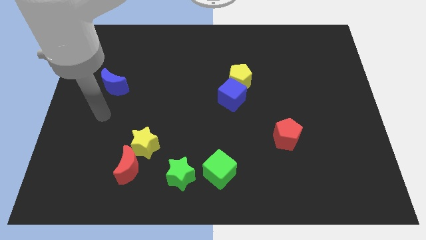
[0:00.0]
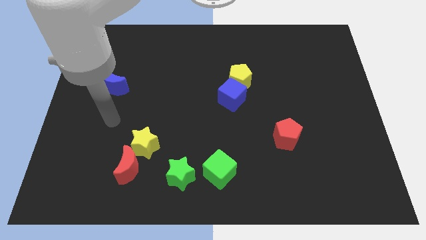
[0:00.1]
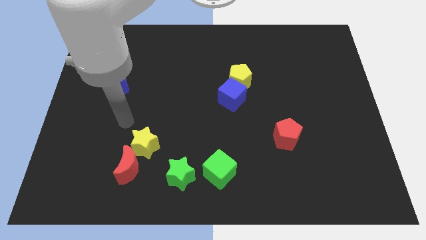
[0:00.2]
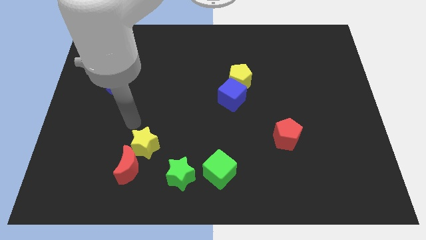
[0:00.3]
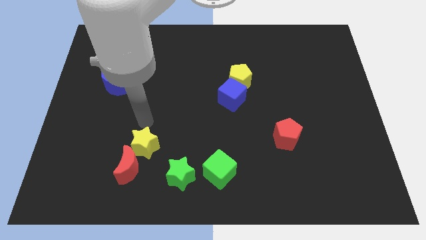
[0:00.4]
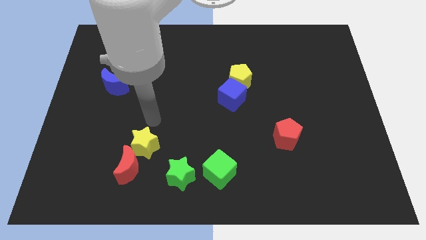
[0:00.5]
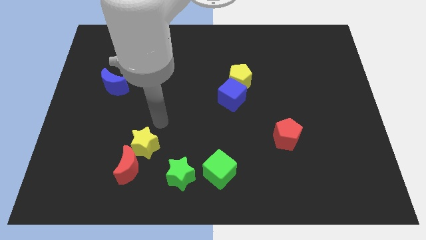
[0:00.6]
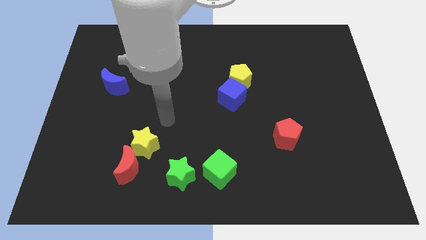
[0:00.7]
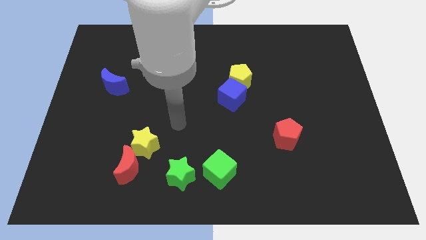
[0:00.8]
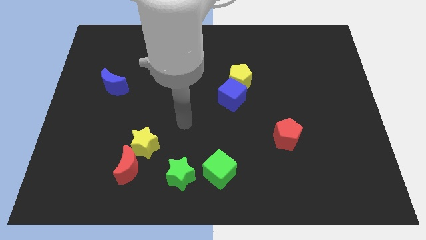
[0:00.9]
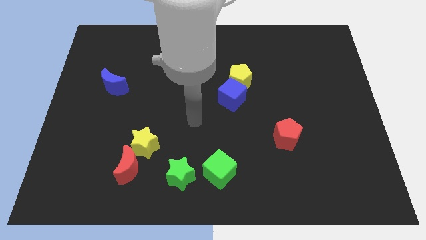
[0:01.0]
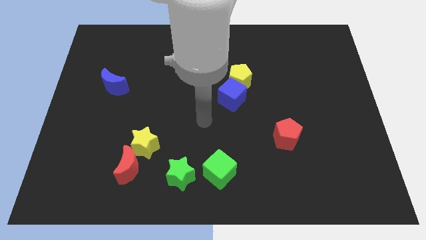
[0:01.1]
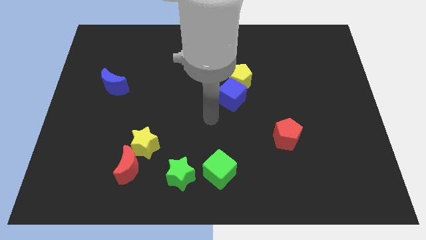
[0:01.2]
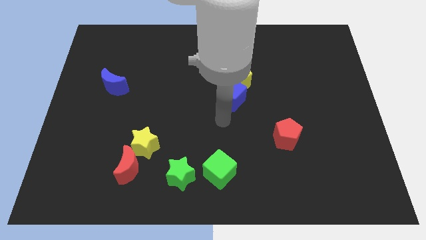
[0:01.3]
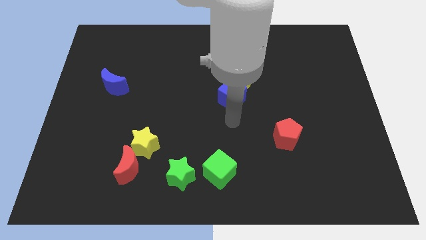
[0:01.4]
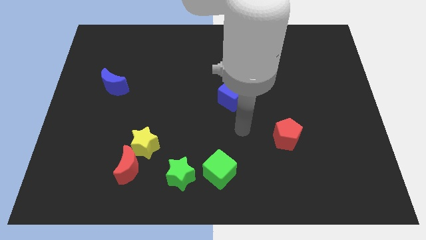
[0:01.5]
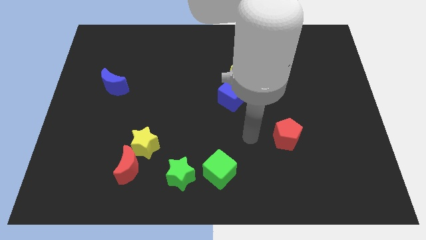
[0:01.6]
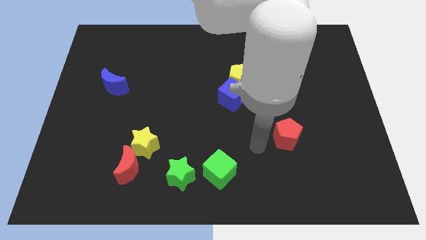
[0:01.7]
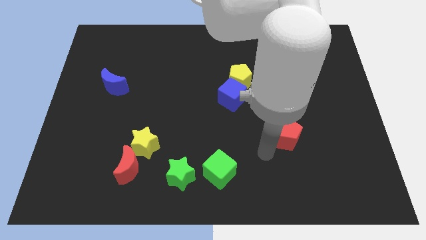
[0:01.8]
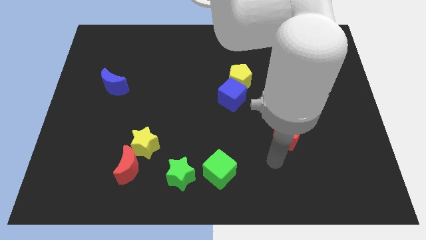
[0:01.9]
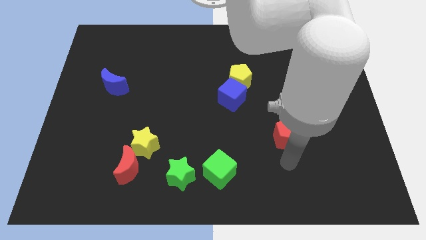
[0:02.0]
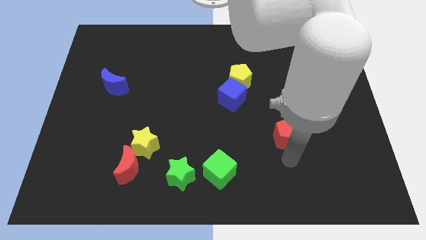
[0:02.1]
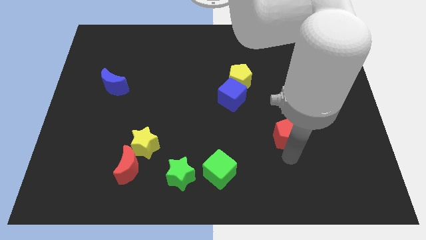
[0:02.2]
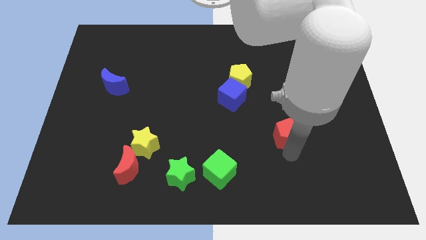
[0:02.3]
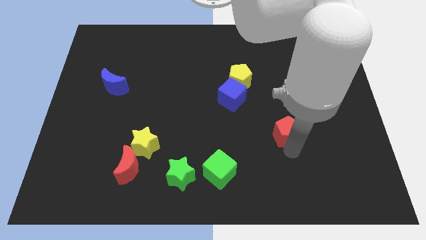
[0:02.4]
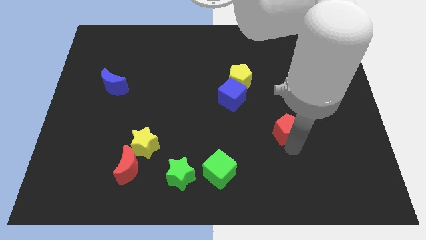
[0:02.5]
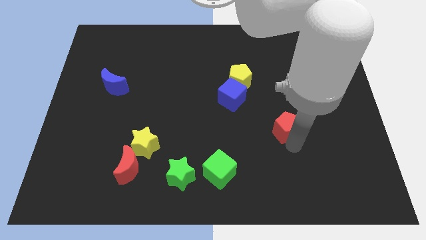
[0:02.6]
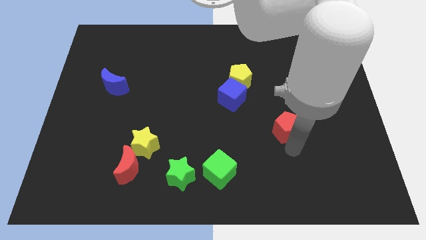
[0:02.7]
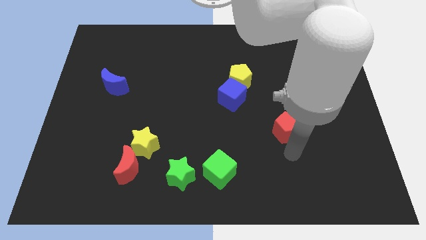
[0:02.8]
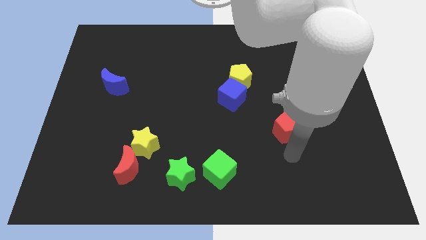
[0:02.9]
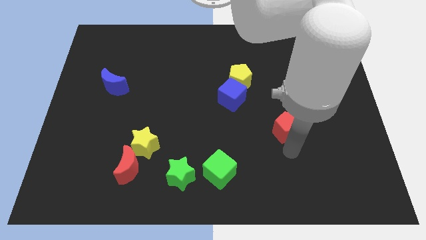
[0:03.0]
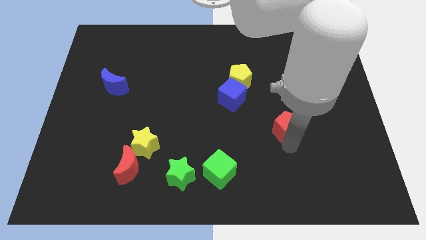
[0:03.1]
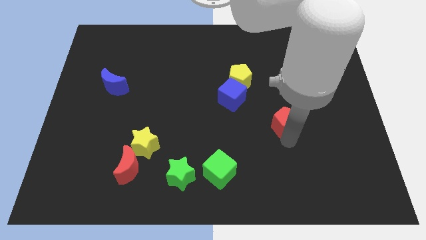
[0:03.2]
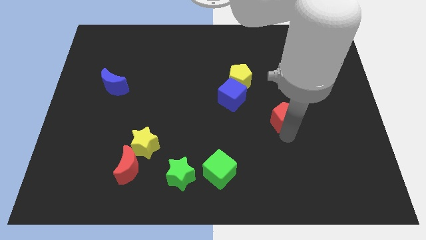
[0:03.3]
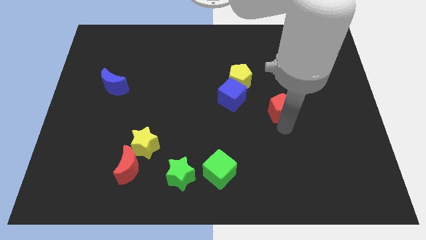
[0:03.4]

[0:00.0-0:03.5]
push the red pentagon upwards a little bit

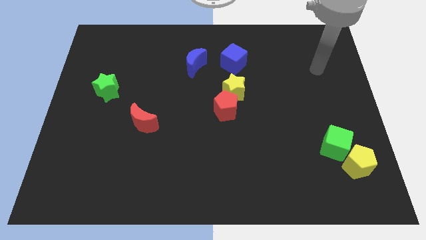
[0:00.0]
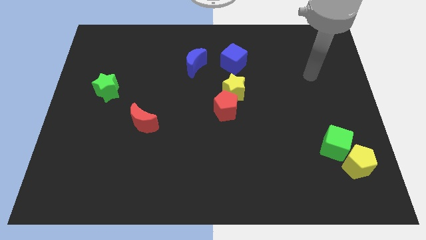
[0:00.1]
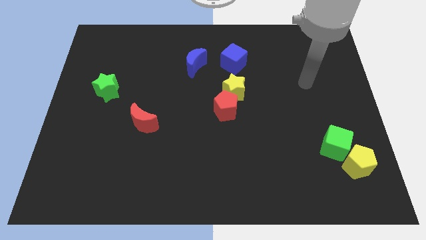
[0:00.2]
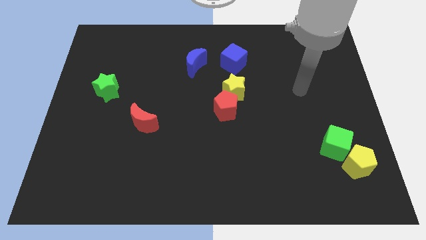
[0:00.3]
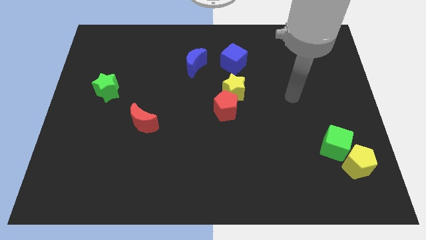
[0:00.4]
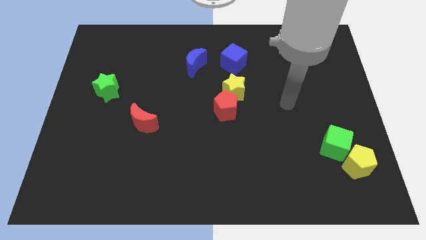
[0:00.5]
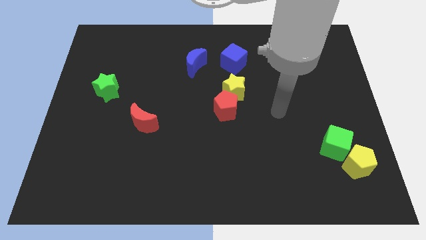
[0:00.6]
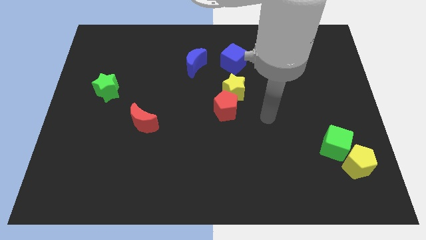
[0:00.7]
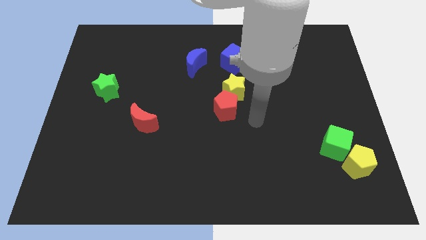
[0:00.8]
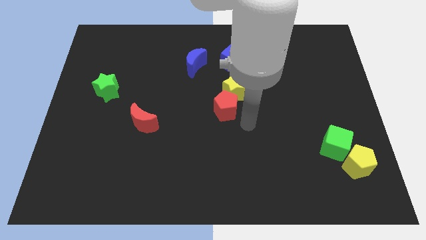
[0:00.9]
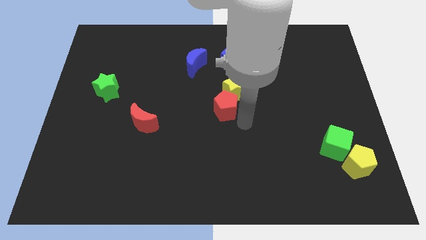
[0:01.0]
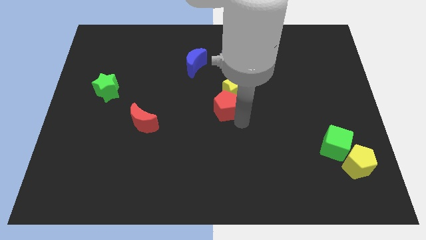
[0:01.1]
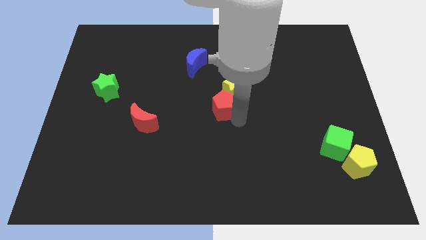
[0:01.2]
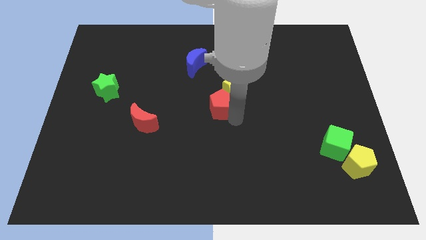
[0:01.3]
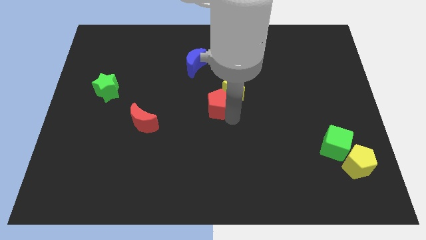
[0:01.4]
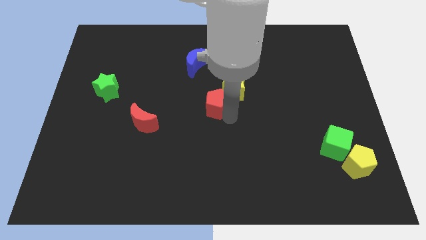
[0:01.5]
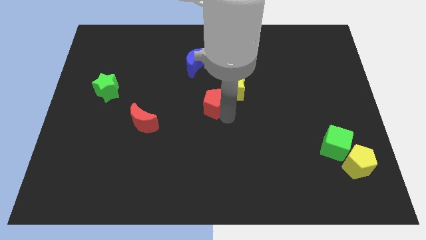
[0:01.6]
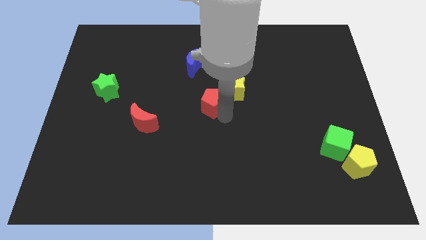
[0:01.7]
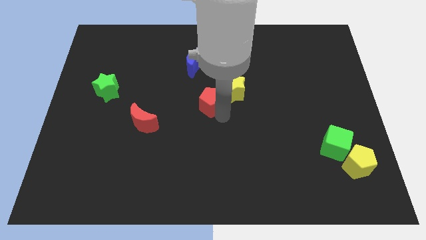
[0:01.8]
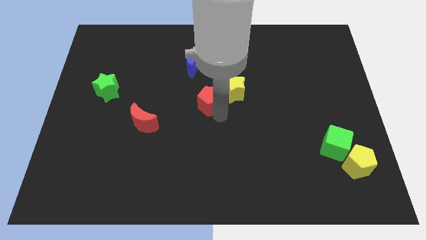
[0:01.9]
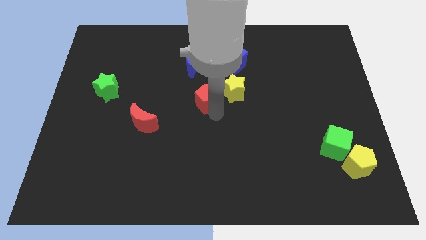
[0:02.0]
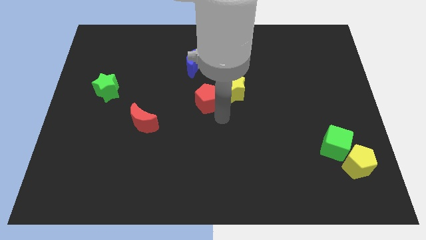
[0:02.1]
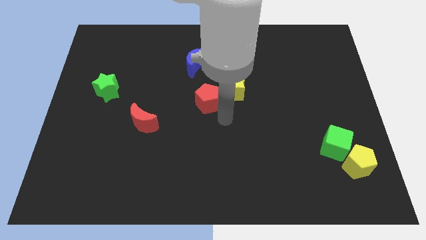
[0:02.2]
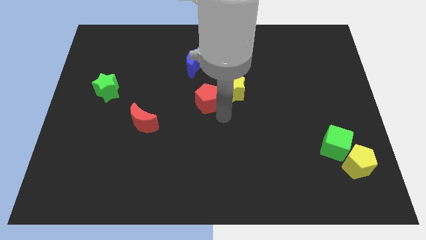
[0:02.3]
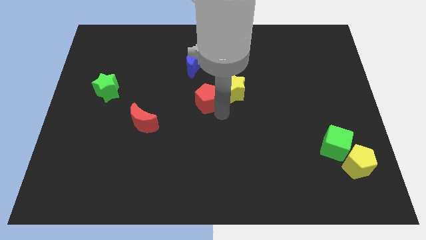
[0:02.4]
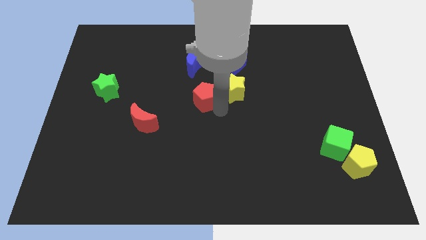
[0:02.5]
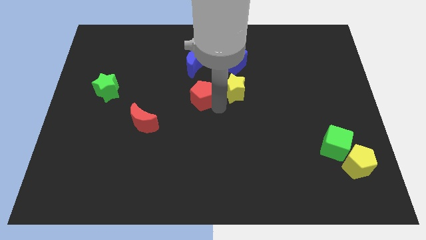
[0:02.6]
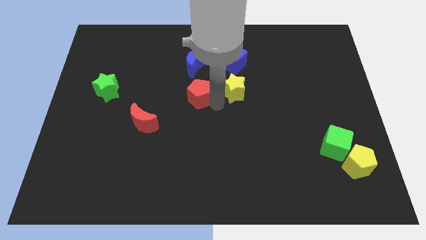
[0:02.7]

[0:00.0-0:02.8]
move the red pentagon somewhat up and left diagonally

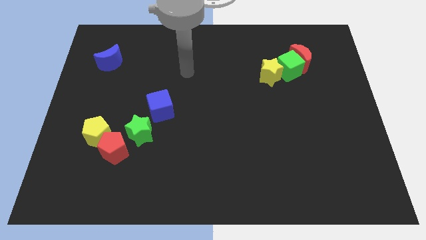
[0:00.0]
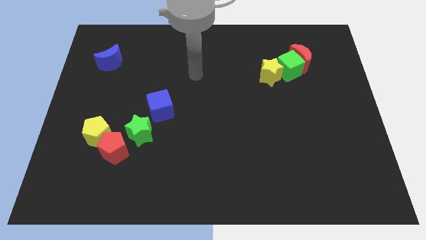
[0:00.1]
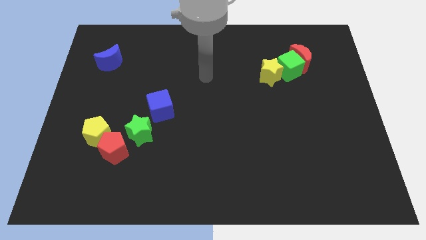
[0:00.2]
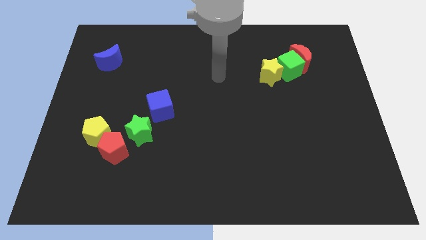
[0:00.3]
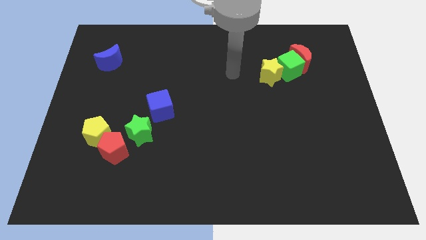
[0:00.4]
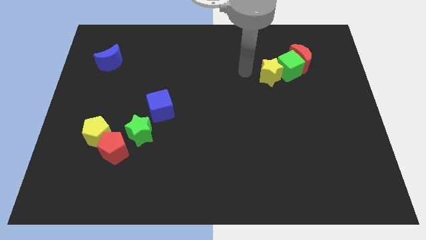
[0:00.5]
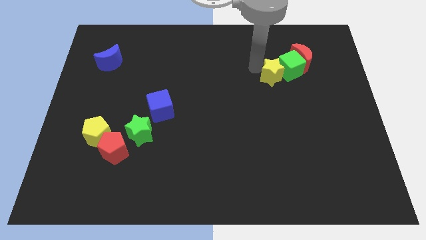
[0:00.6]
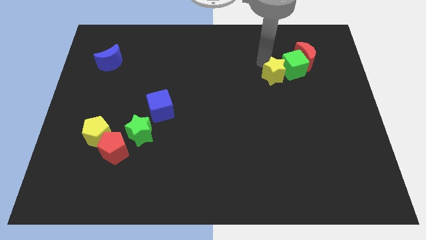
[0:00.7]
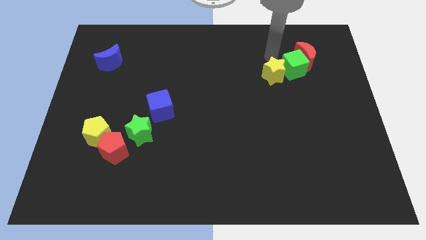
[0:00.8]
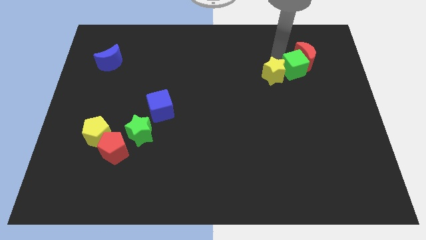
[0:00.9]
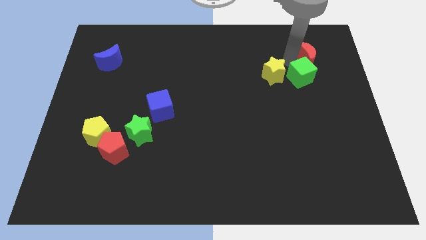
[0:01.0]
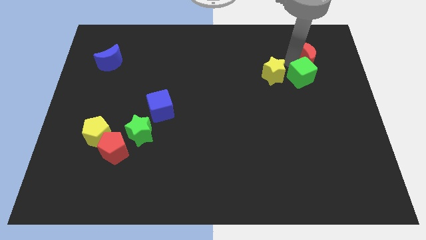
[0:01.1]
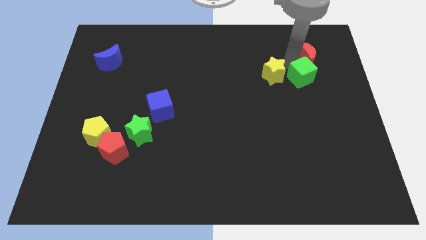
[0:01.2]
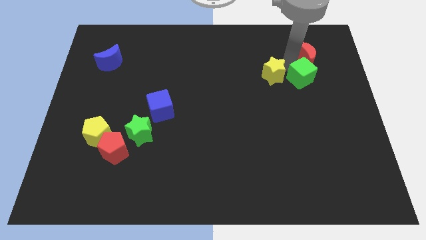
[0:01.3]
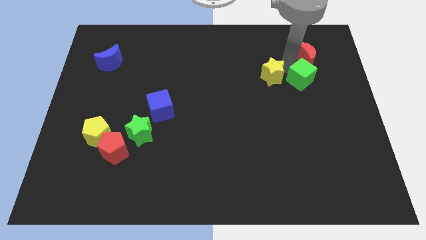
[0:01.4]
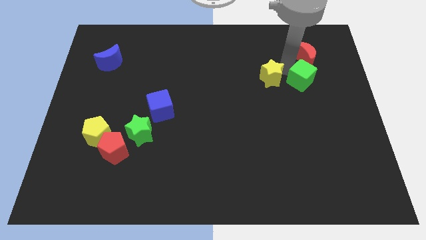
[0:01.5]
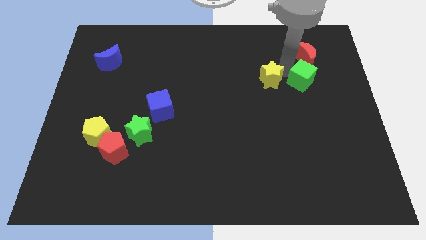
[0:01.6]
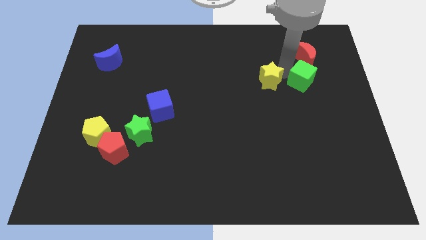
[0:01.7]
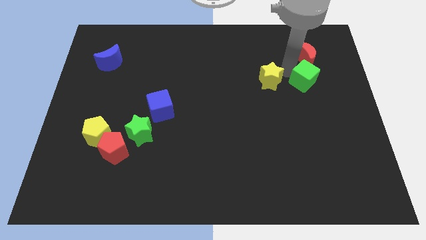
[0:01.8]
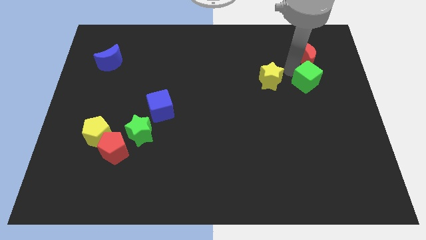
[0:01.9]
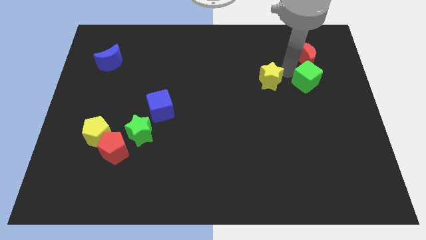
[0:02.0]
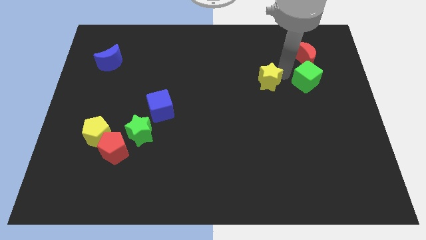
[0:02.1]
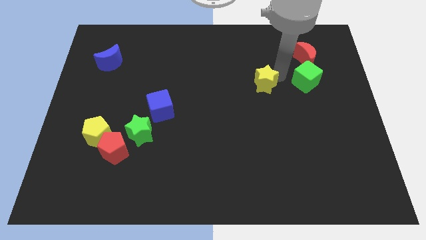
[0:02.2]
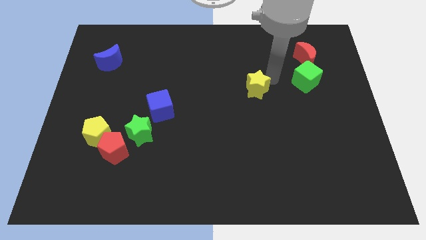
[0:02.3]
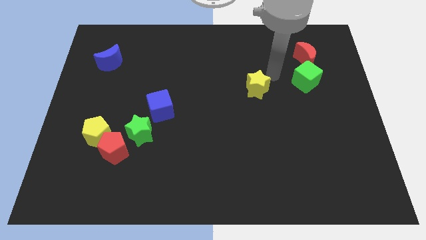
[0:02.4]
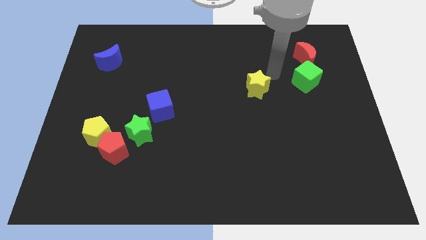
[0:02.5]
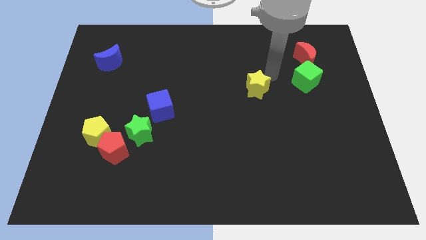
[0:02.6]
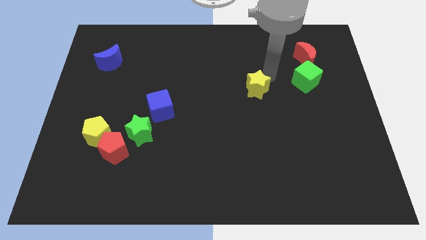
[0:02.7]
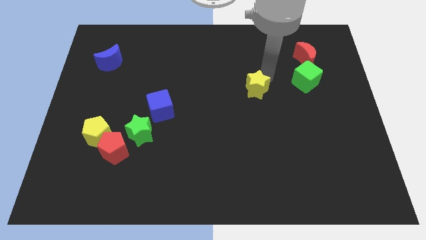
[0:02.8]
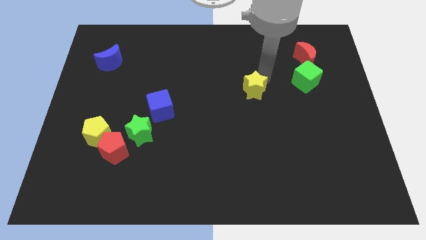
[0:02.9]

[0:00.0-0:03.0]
push the yellow star somewhat down and to the left
